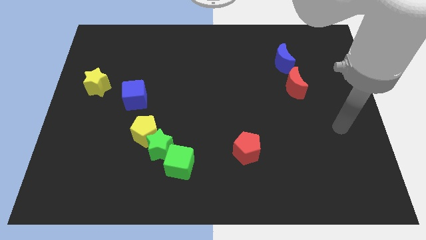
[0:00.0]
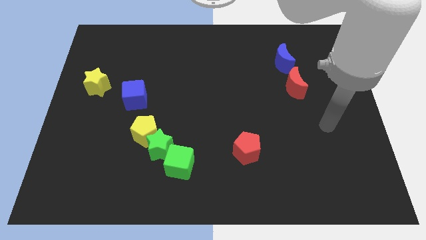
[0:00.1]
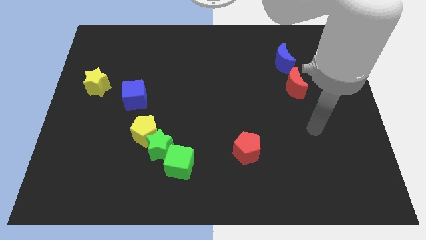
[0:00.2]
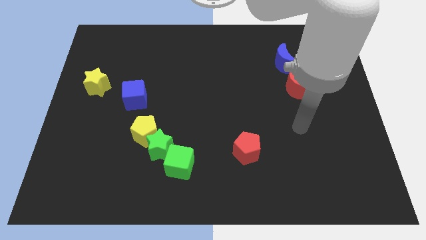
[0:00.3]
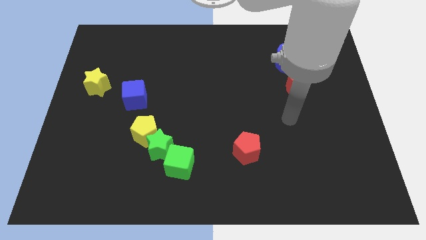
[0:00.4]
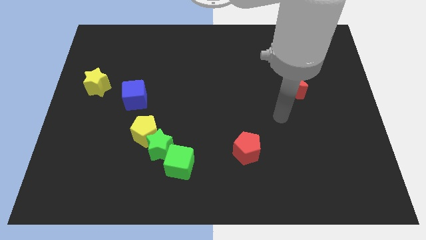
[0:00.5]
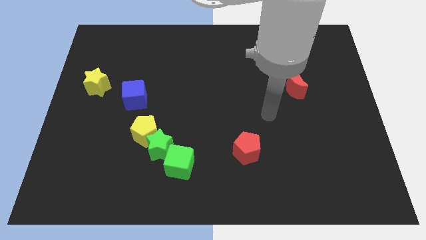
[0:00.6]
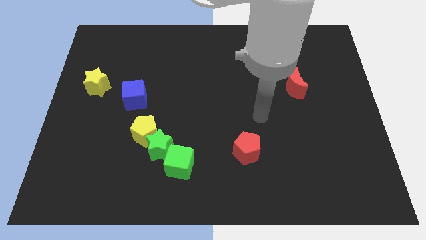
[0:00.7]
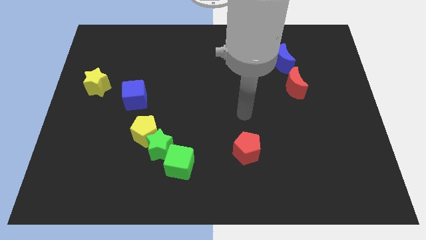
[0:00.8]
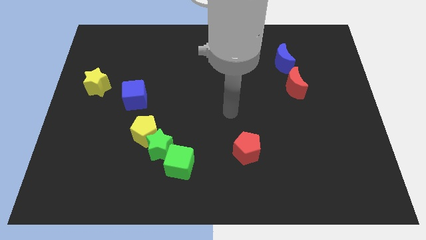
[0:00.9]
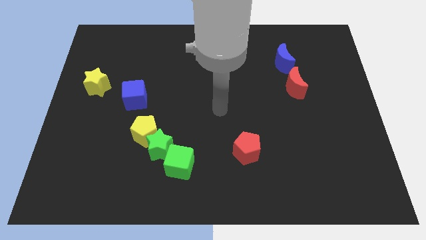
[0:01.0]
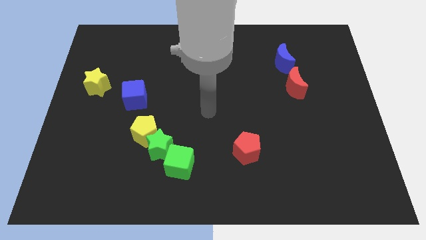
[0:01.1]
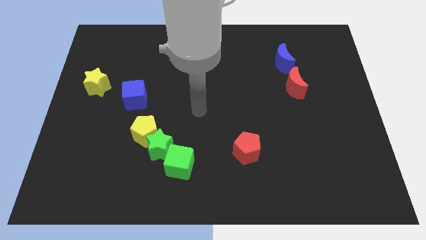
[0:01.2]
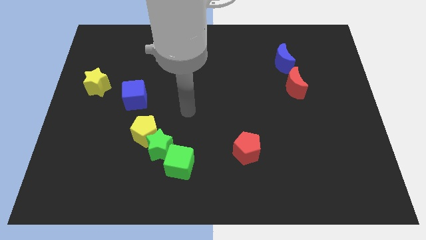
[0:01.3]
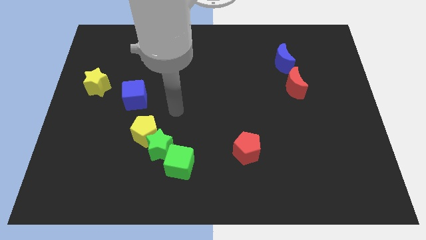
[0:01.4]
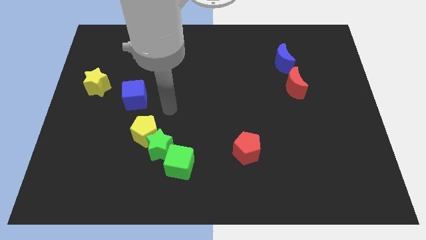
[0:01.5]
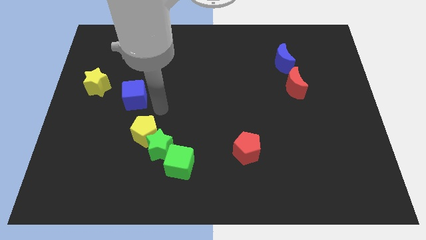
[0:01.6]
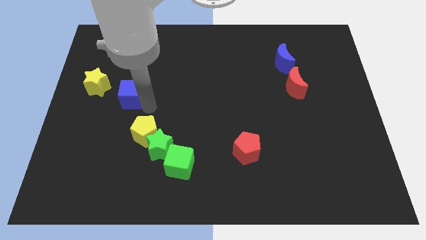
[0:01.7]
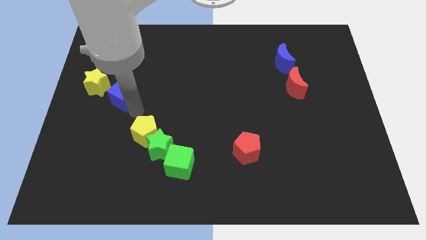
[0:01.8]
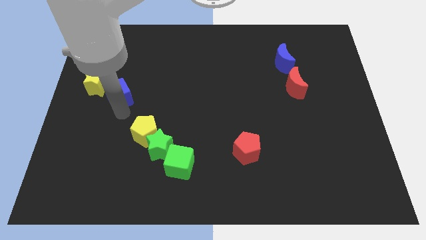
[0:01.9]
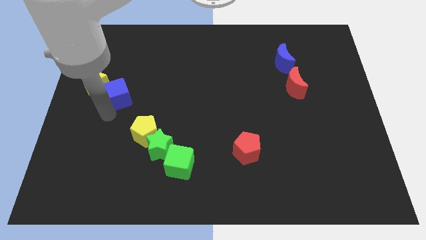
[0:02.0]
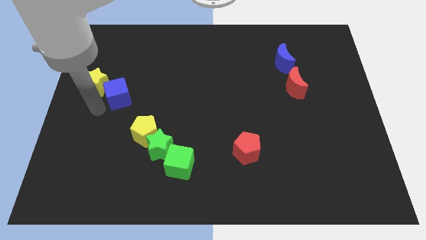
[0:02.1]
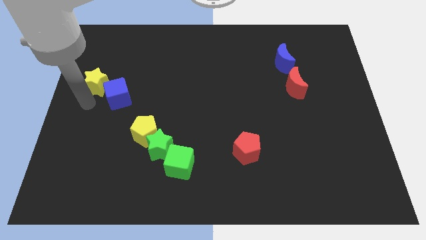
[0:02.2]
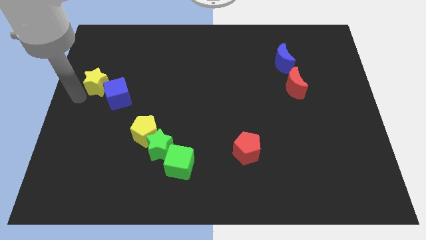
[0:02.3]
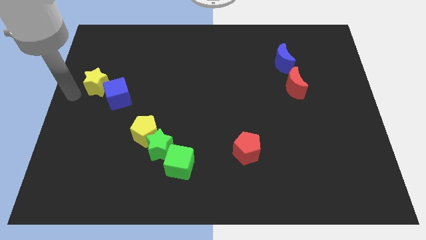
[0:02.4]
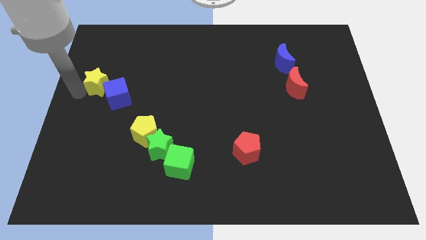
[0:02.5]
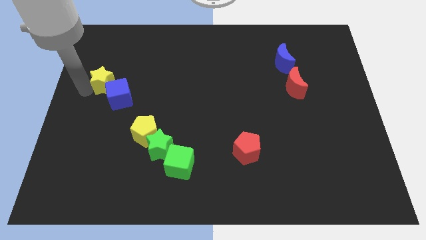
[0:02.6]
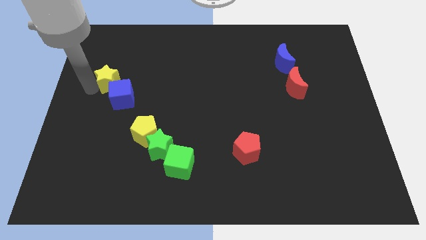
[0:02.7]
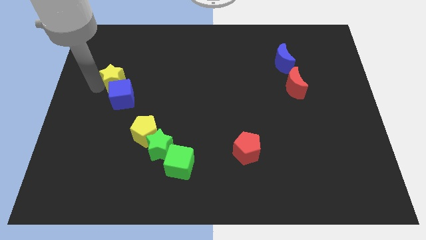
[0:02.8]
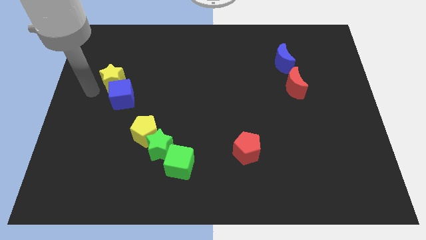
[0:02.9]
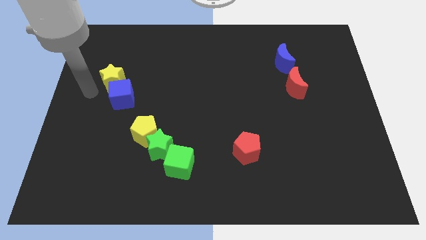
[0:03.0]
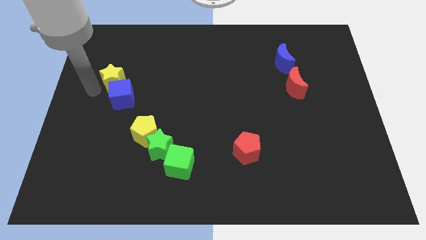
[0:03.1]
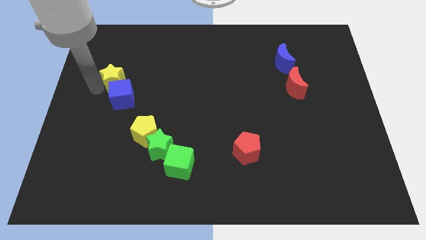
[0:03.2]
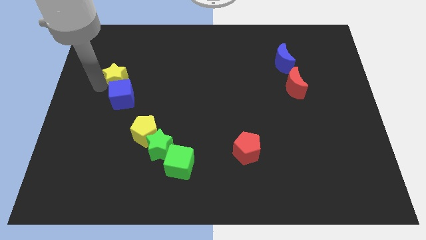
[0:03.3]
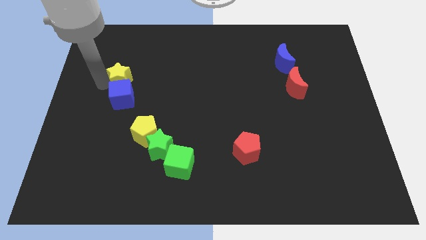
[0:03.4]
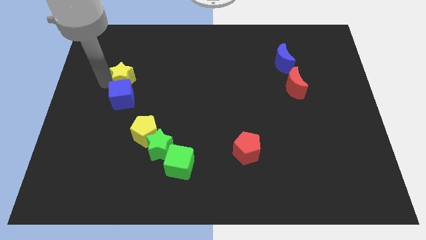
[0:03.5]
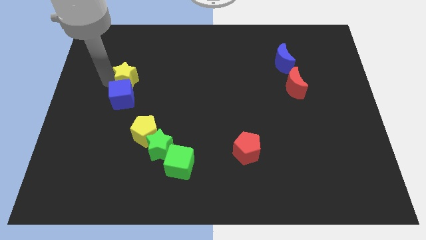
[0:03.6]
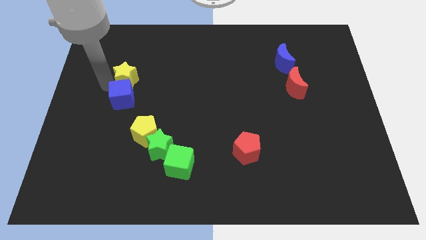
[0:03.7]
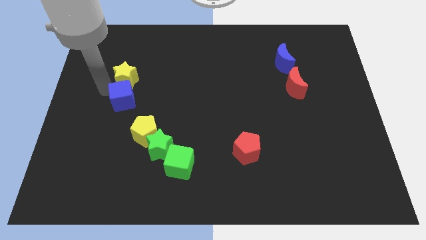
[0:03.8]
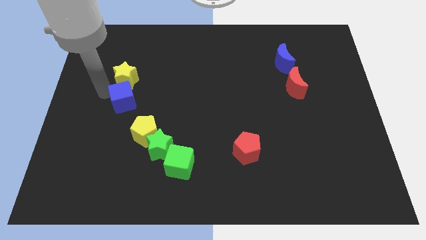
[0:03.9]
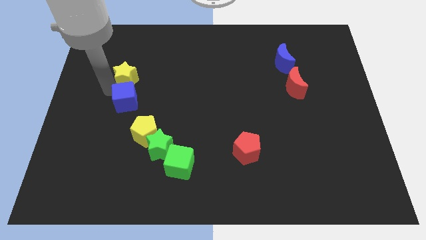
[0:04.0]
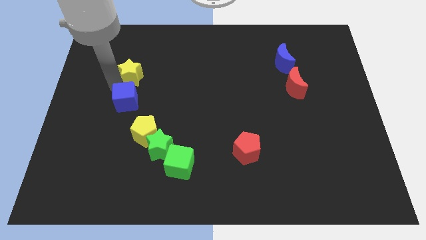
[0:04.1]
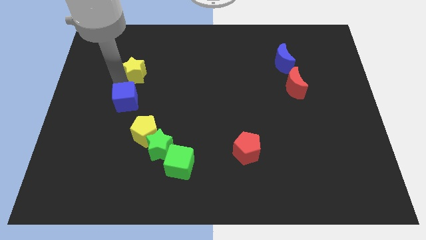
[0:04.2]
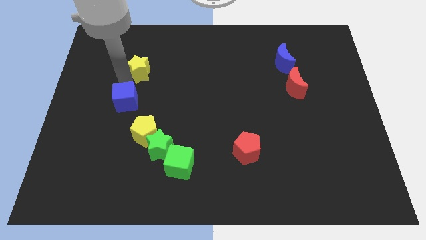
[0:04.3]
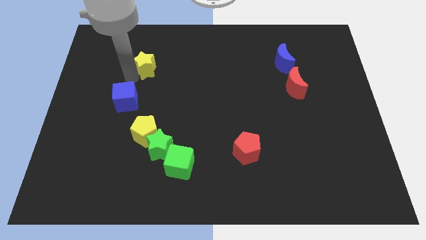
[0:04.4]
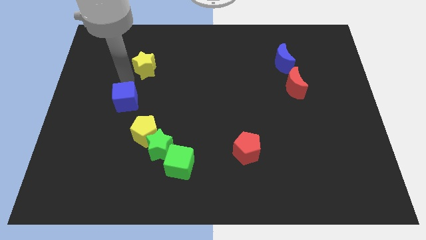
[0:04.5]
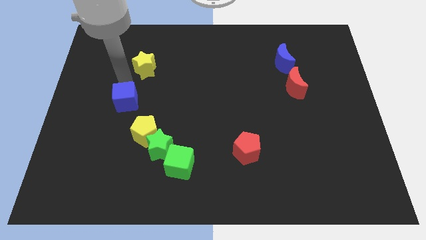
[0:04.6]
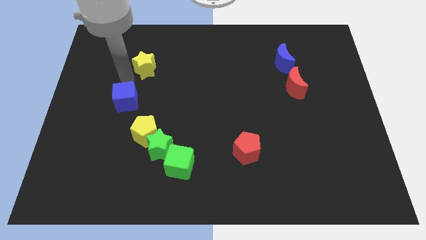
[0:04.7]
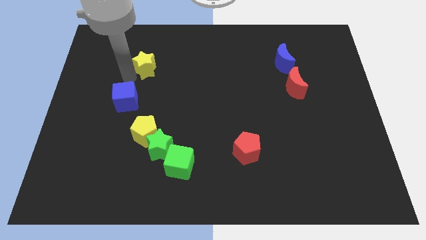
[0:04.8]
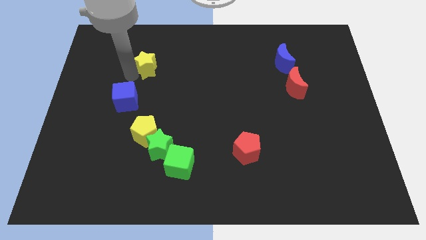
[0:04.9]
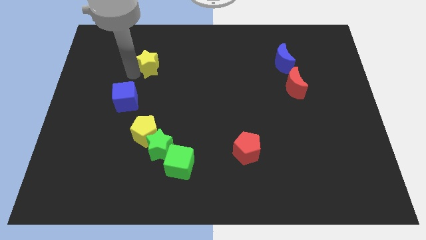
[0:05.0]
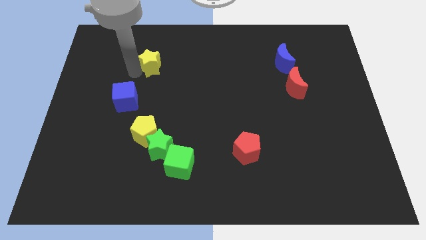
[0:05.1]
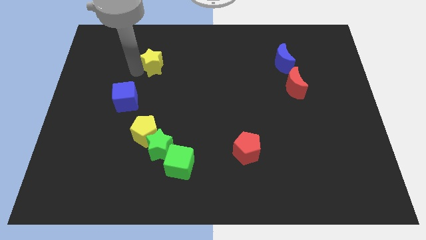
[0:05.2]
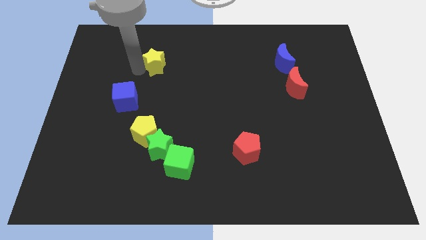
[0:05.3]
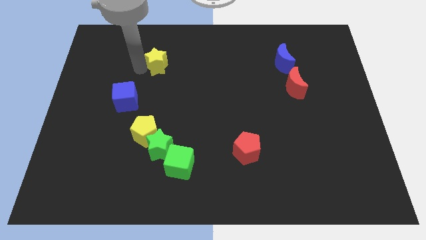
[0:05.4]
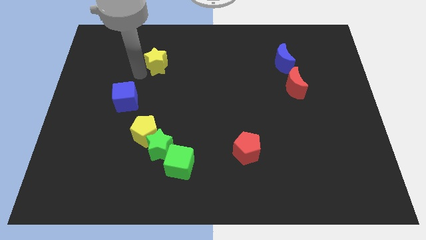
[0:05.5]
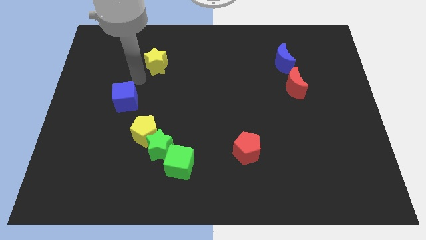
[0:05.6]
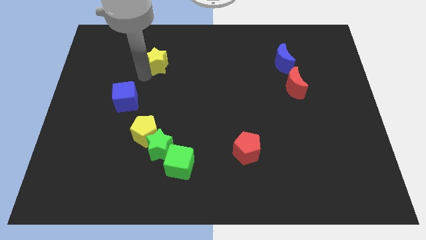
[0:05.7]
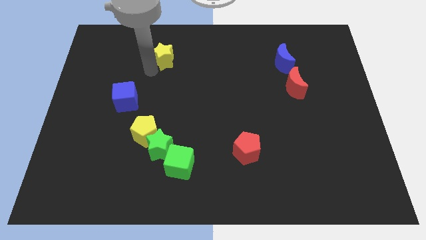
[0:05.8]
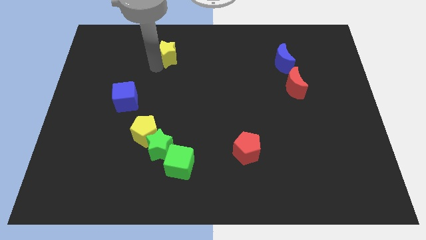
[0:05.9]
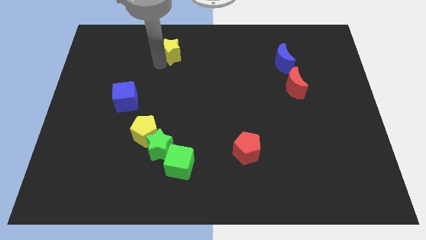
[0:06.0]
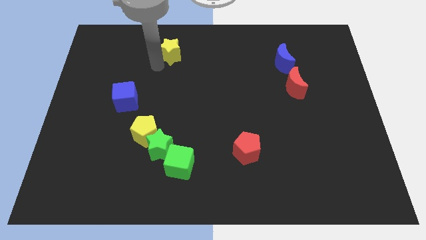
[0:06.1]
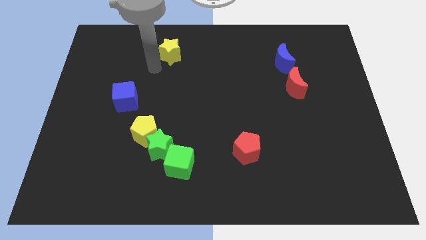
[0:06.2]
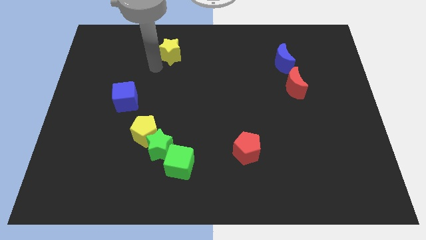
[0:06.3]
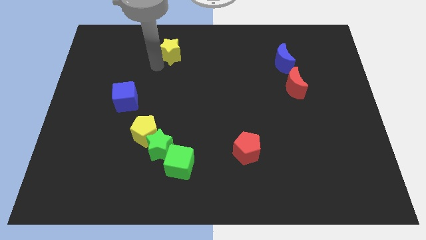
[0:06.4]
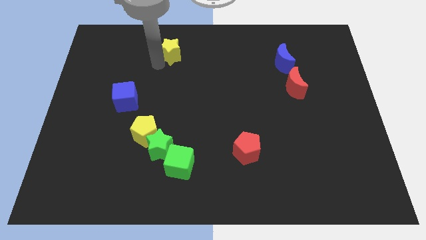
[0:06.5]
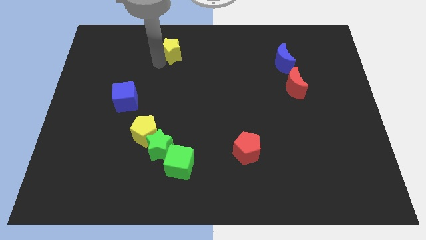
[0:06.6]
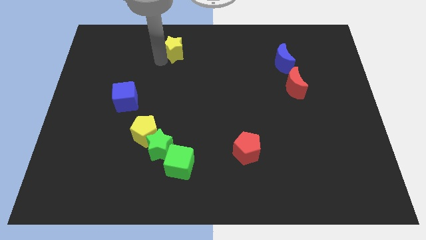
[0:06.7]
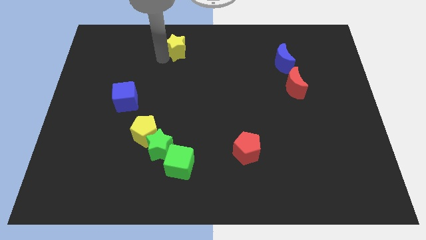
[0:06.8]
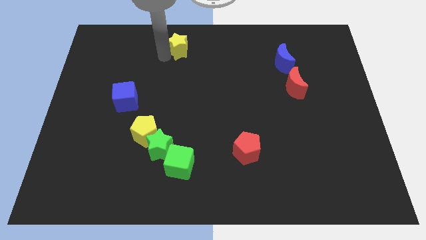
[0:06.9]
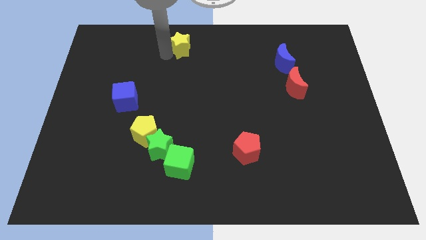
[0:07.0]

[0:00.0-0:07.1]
slide the yellow star to the towards your base
